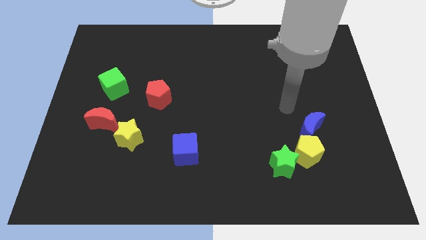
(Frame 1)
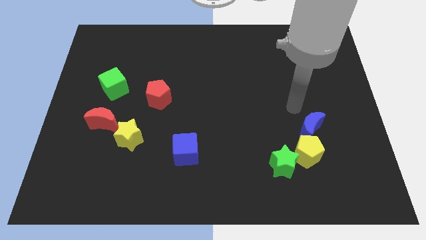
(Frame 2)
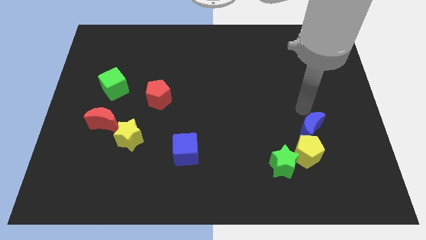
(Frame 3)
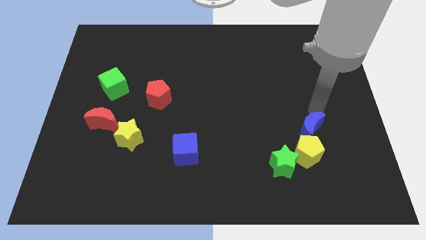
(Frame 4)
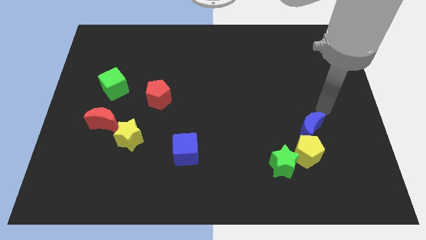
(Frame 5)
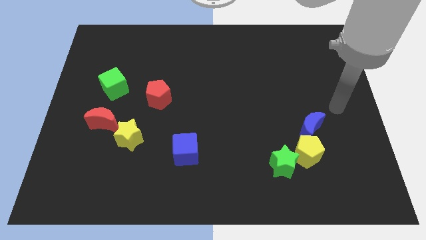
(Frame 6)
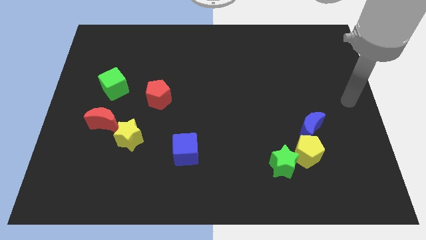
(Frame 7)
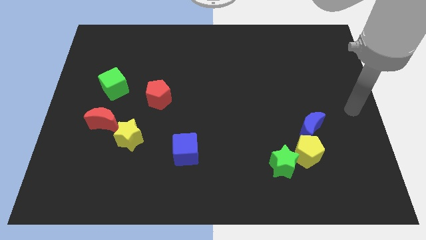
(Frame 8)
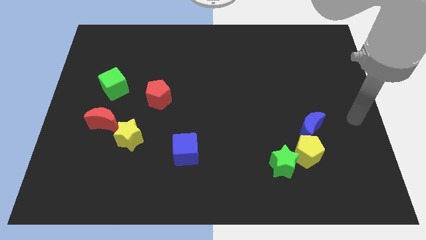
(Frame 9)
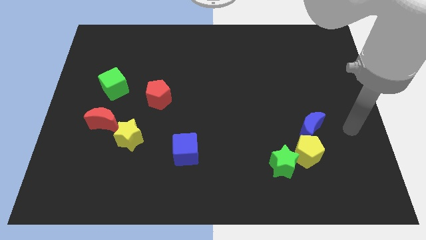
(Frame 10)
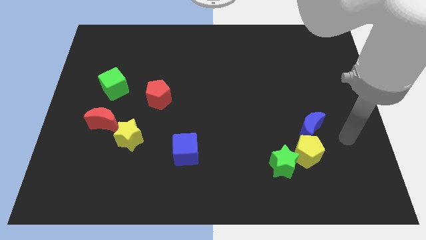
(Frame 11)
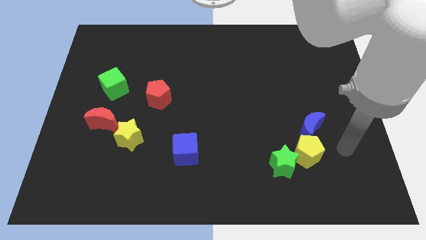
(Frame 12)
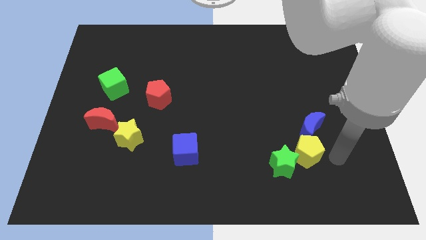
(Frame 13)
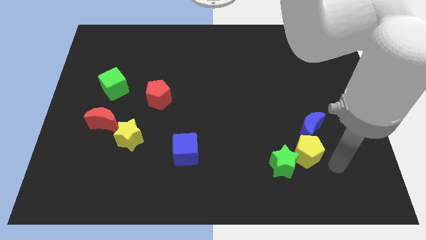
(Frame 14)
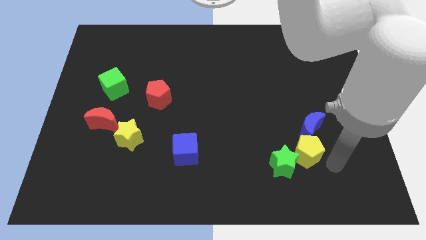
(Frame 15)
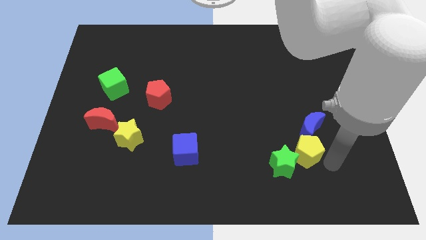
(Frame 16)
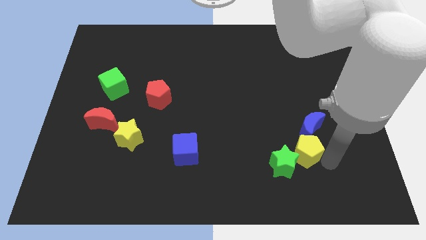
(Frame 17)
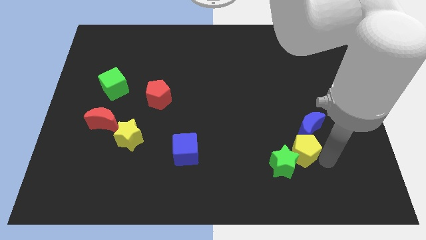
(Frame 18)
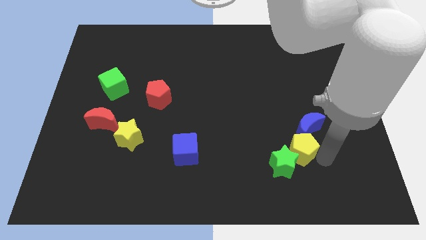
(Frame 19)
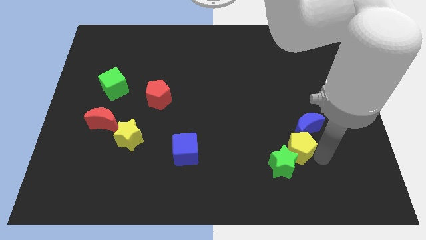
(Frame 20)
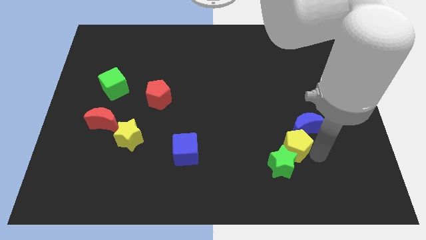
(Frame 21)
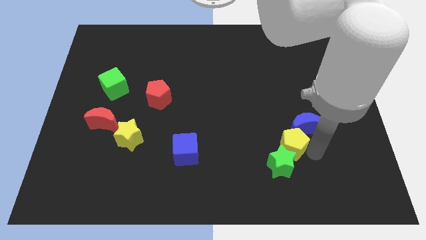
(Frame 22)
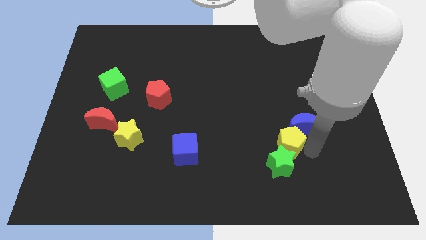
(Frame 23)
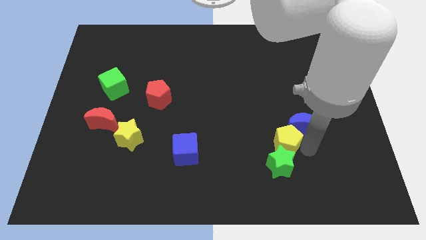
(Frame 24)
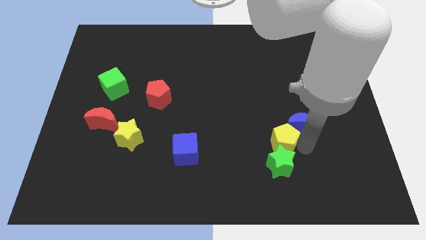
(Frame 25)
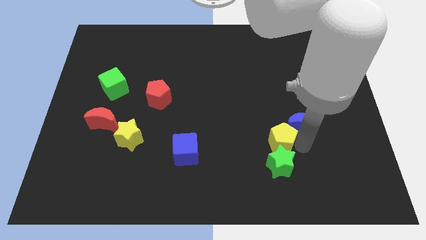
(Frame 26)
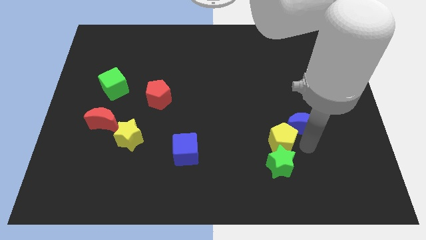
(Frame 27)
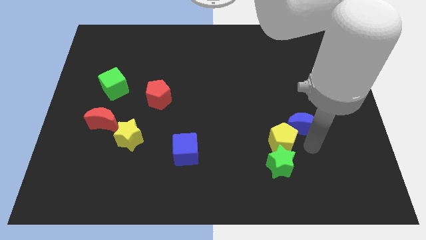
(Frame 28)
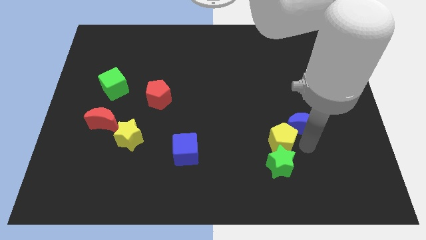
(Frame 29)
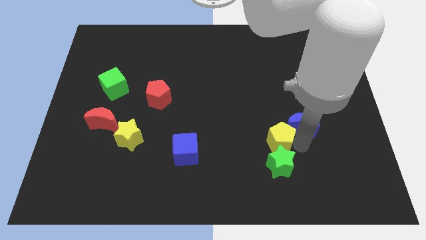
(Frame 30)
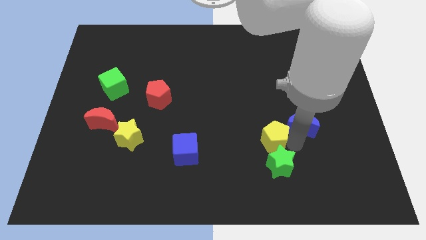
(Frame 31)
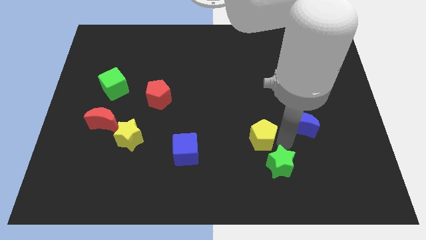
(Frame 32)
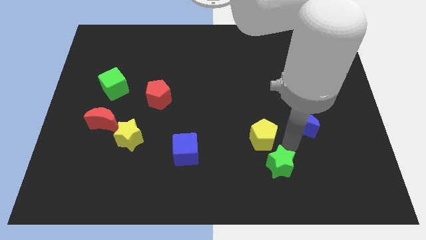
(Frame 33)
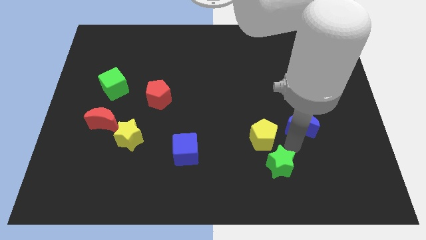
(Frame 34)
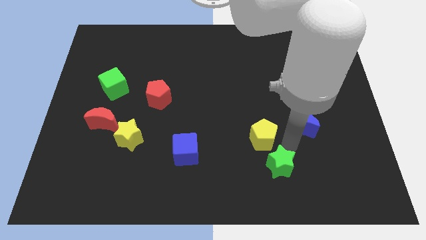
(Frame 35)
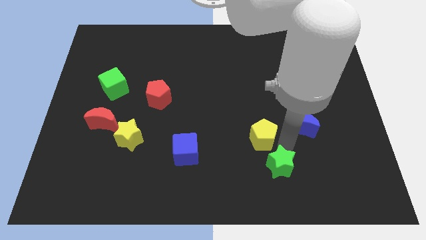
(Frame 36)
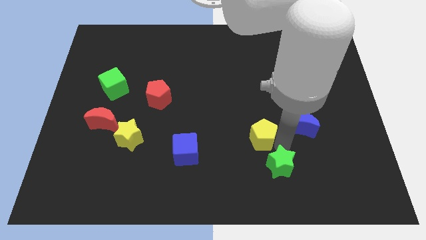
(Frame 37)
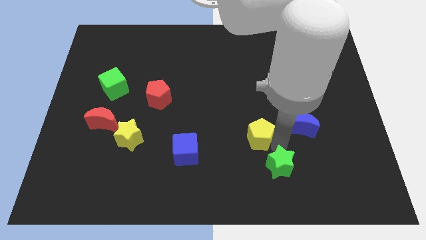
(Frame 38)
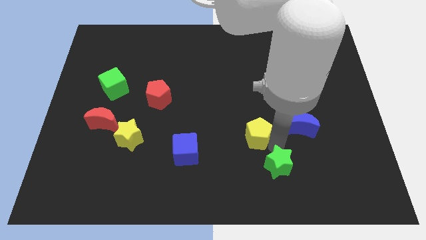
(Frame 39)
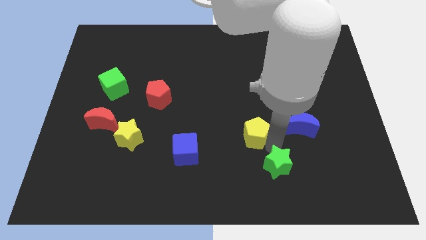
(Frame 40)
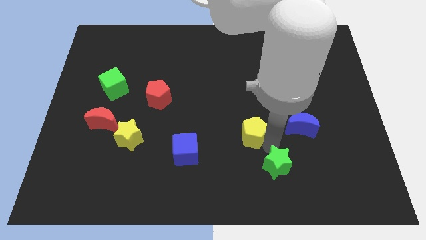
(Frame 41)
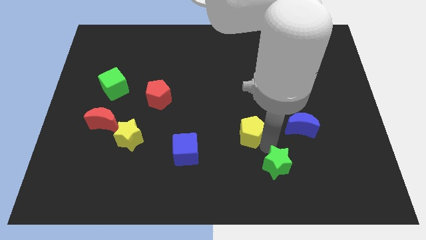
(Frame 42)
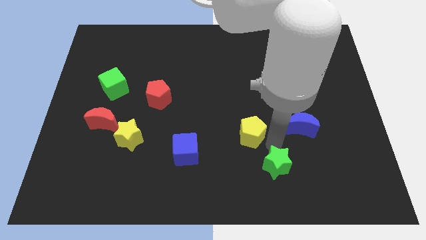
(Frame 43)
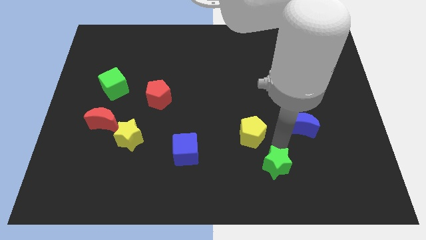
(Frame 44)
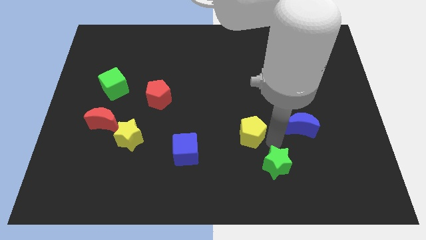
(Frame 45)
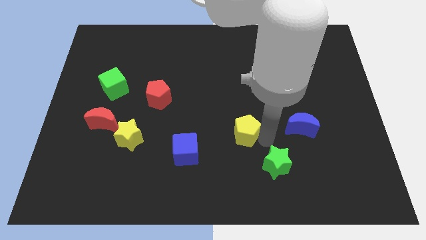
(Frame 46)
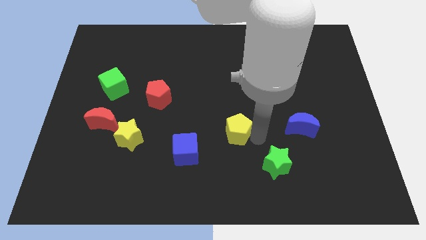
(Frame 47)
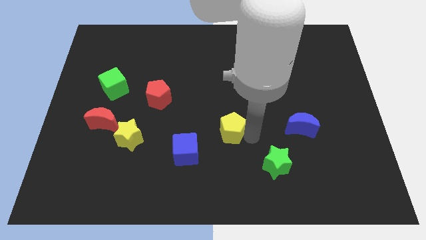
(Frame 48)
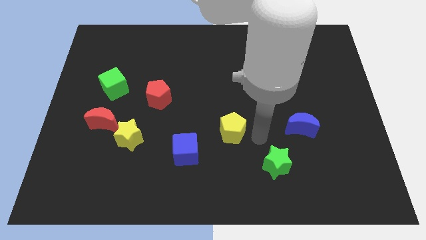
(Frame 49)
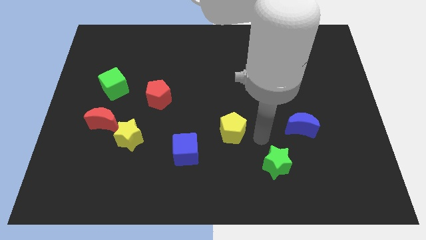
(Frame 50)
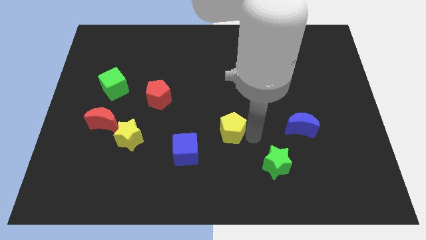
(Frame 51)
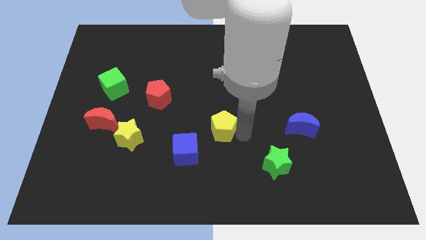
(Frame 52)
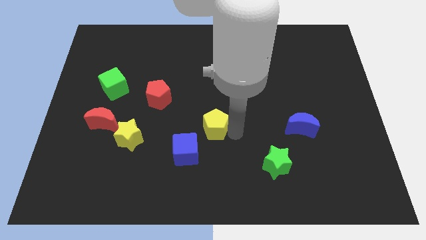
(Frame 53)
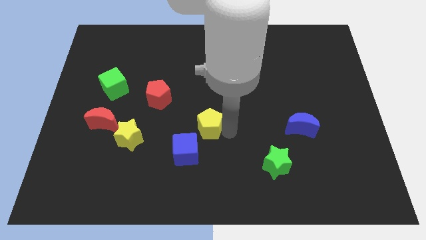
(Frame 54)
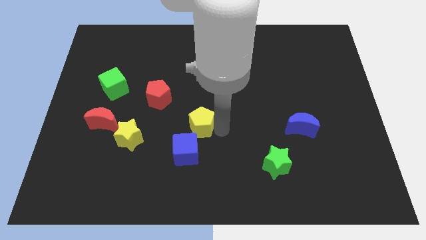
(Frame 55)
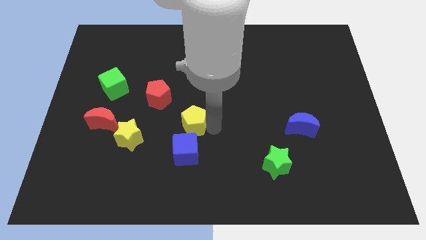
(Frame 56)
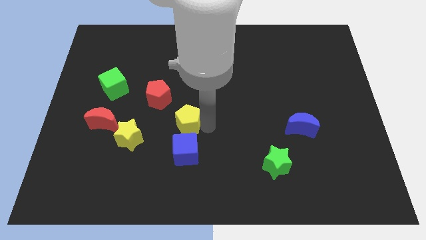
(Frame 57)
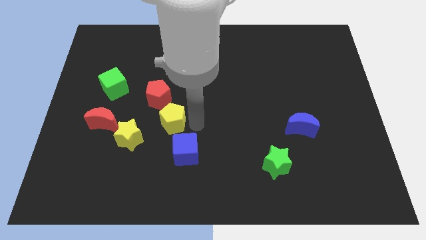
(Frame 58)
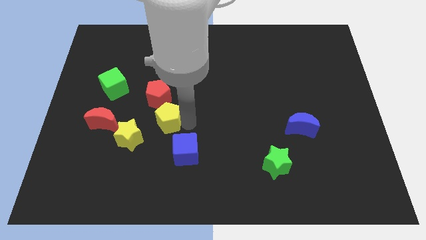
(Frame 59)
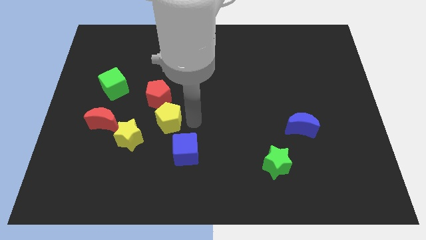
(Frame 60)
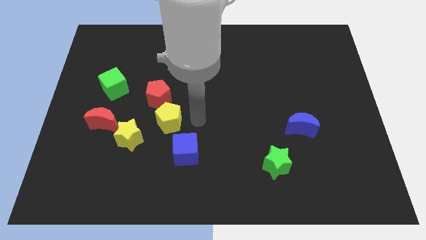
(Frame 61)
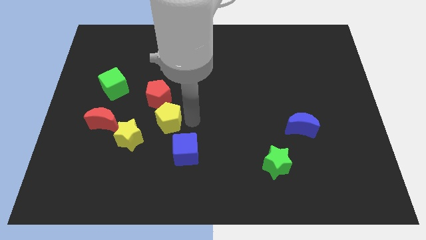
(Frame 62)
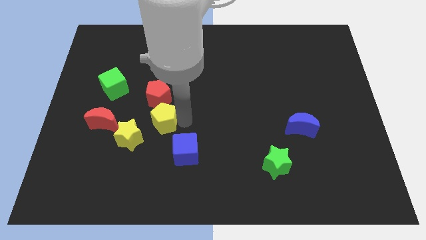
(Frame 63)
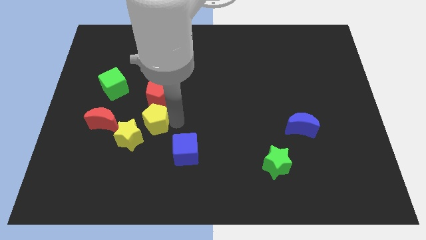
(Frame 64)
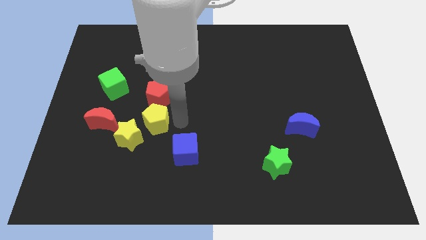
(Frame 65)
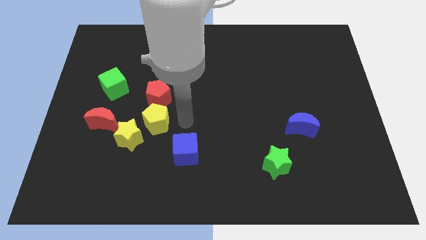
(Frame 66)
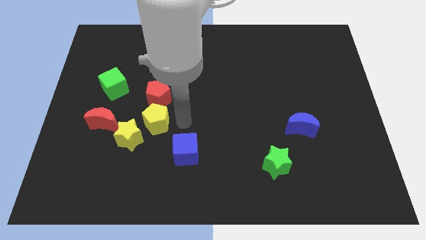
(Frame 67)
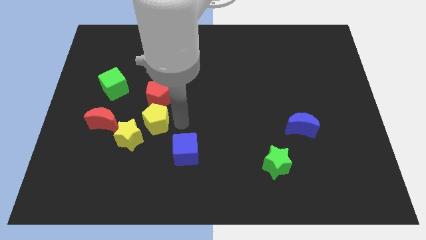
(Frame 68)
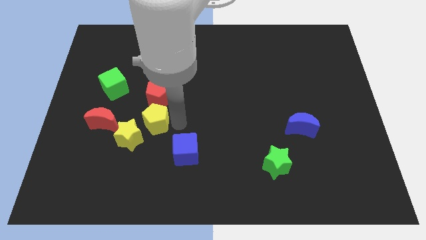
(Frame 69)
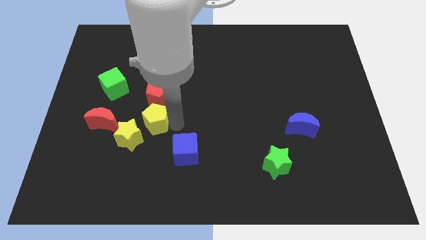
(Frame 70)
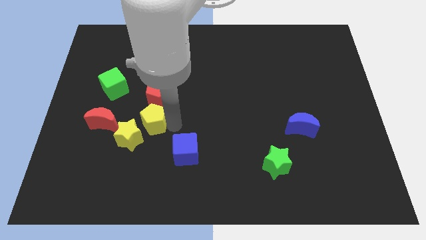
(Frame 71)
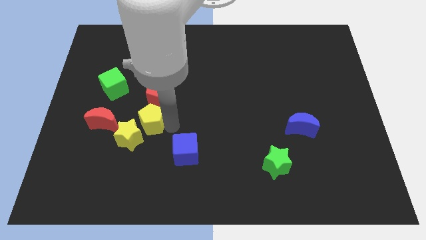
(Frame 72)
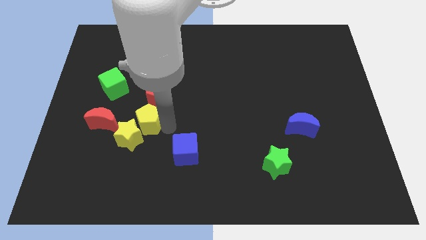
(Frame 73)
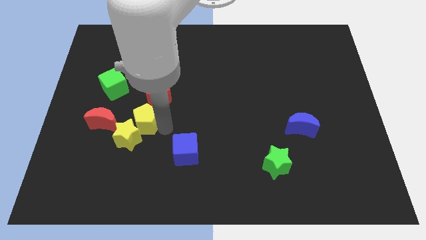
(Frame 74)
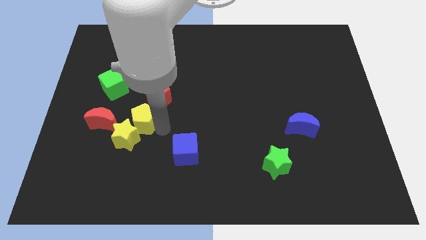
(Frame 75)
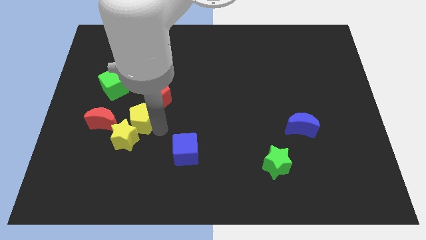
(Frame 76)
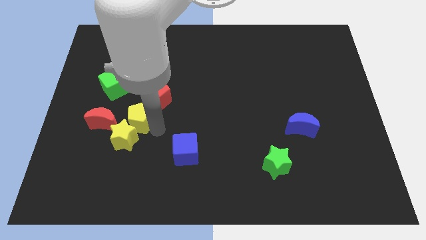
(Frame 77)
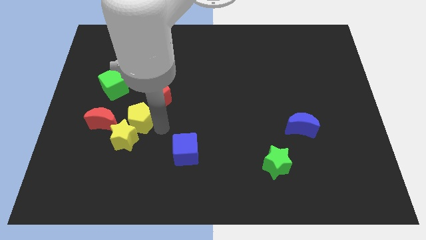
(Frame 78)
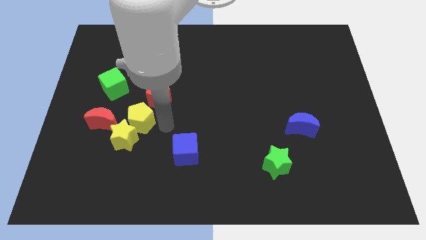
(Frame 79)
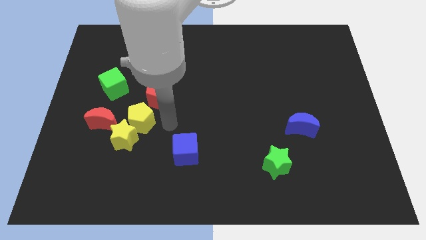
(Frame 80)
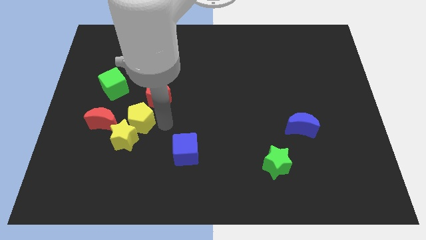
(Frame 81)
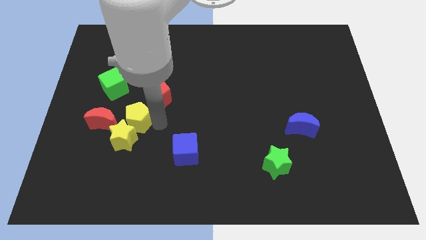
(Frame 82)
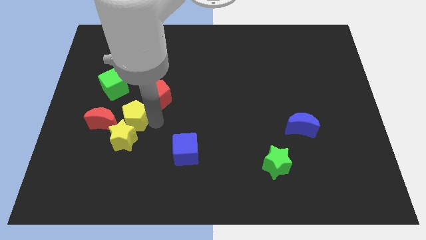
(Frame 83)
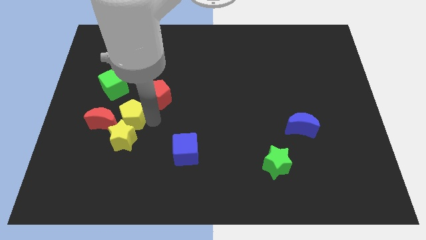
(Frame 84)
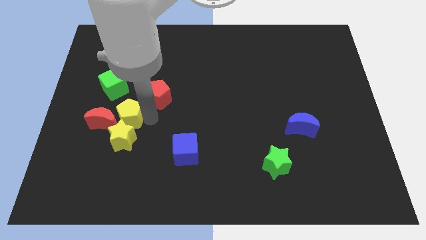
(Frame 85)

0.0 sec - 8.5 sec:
move the yellow pentagon close to the red moon
